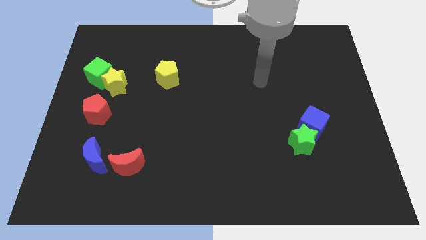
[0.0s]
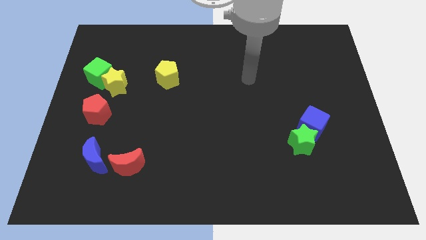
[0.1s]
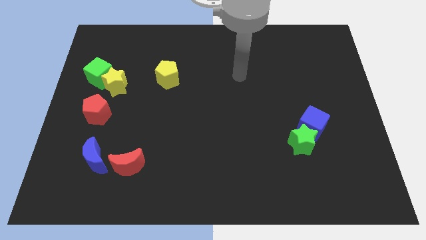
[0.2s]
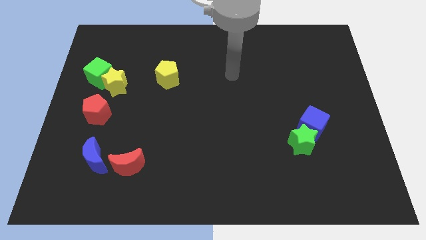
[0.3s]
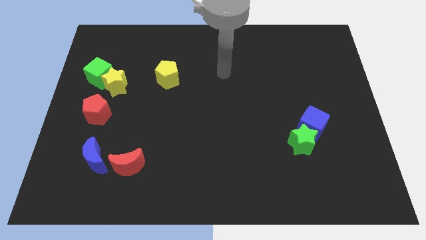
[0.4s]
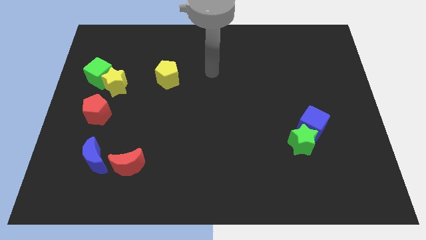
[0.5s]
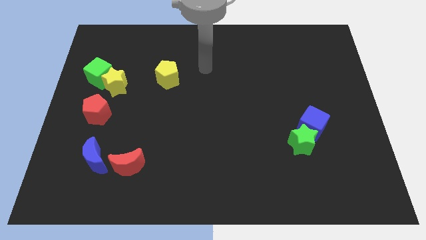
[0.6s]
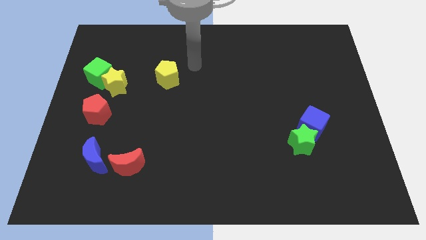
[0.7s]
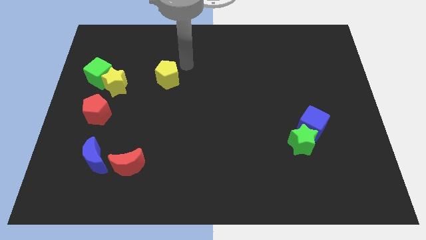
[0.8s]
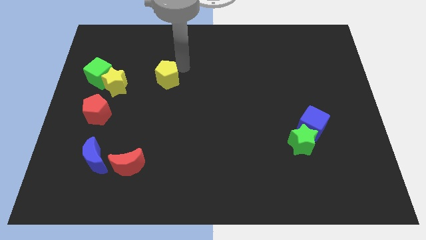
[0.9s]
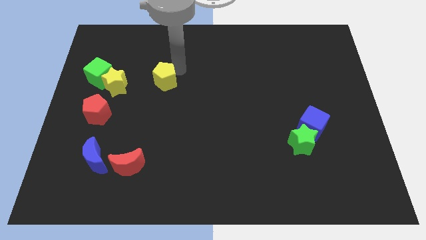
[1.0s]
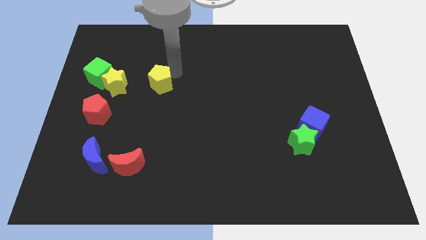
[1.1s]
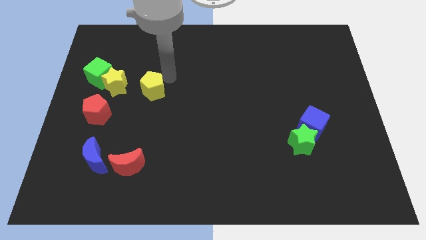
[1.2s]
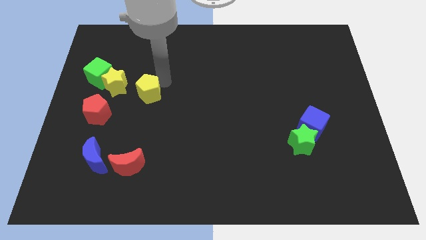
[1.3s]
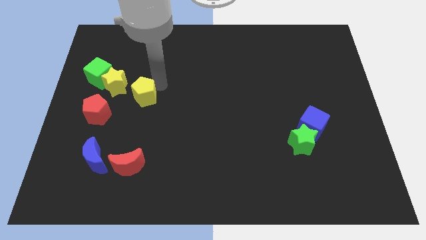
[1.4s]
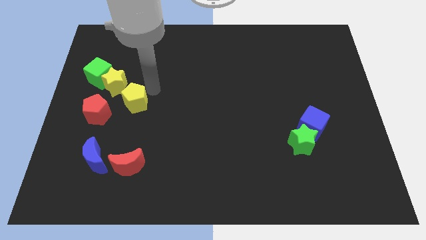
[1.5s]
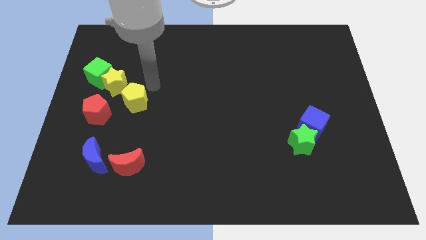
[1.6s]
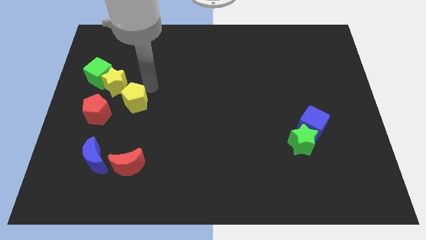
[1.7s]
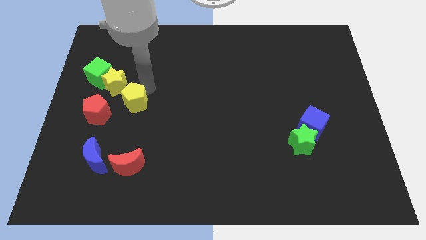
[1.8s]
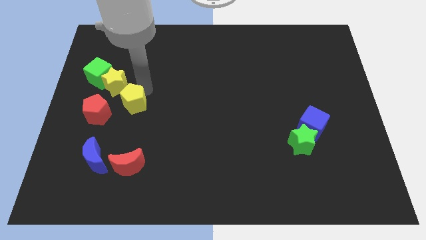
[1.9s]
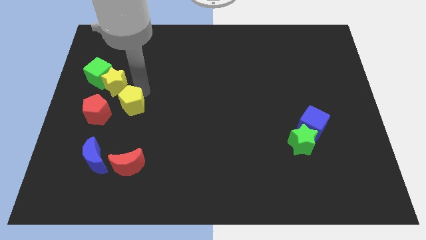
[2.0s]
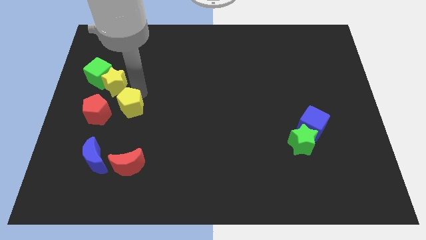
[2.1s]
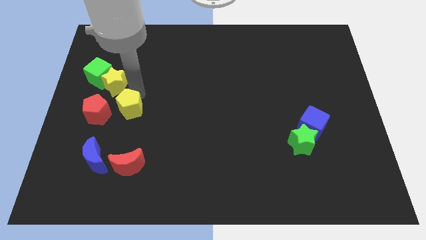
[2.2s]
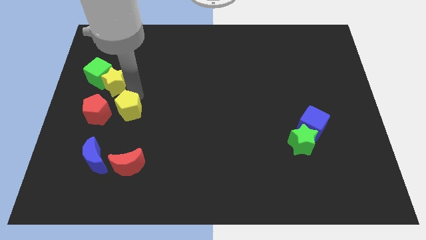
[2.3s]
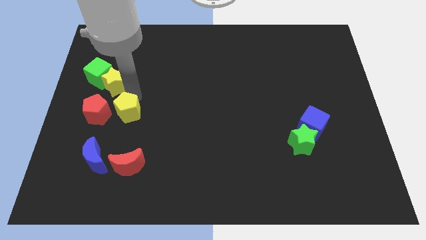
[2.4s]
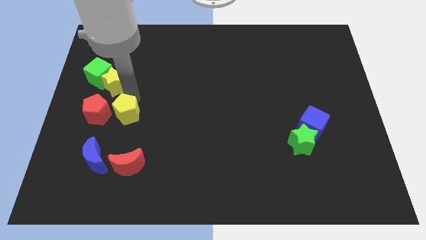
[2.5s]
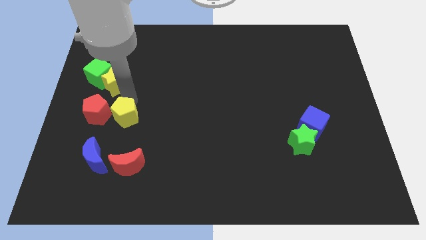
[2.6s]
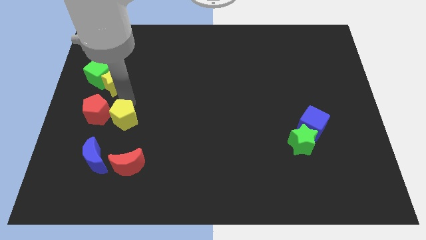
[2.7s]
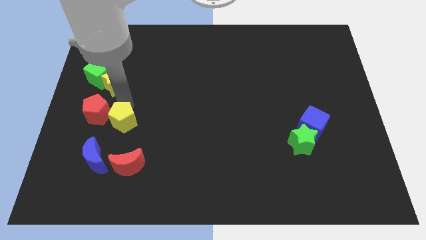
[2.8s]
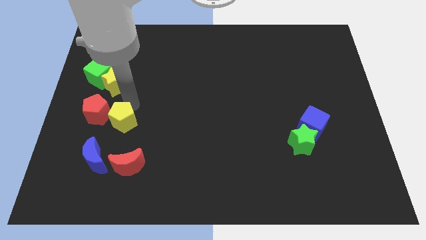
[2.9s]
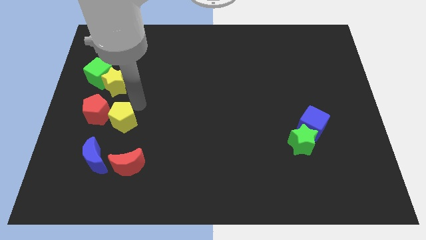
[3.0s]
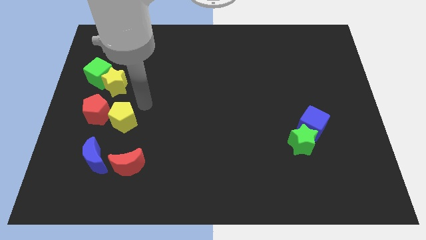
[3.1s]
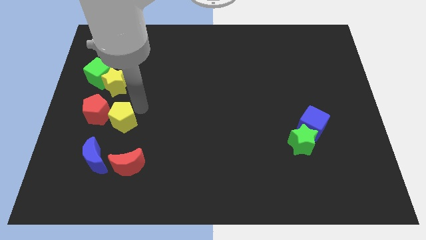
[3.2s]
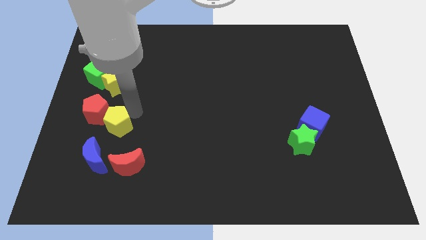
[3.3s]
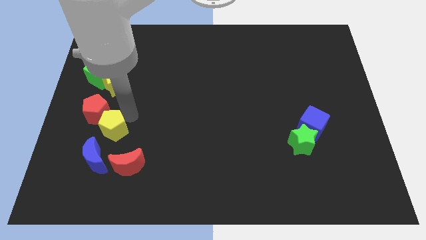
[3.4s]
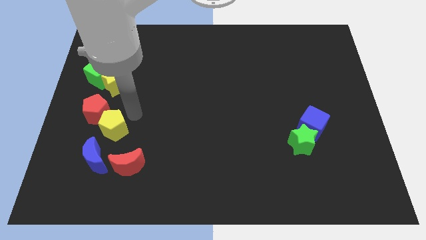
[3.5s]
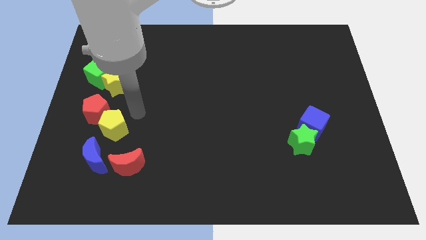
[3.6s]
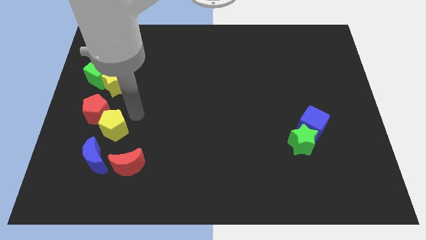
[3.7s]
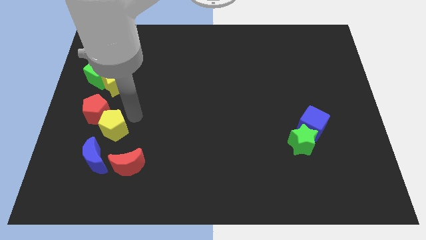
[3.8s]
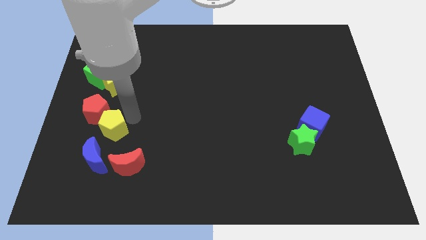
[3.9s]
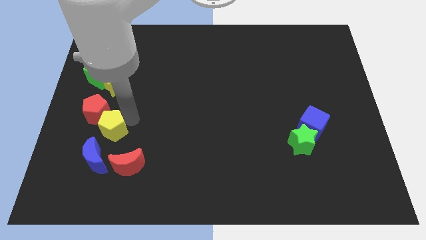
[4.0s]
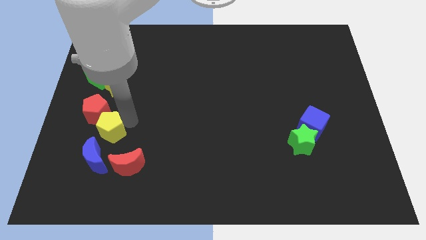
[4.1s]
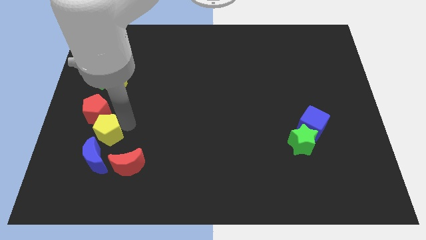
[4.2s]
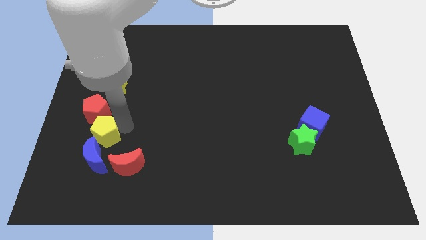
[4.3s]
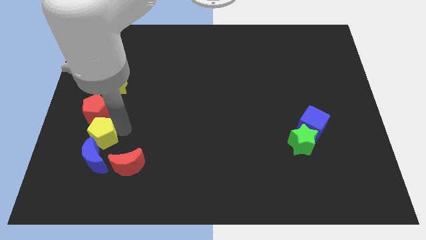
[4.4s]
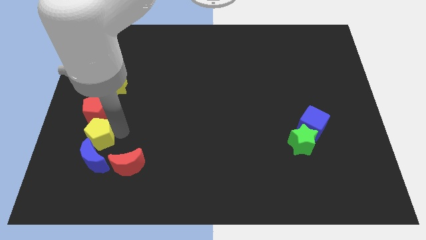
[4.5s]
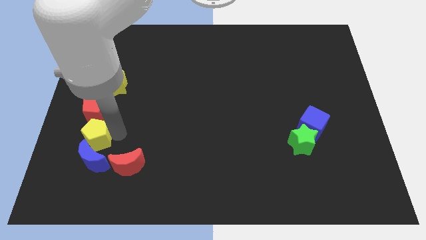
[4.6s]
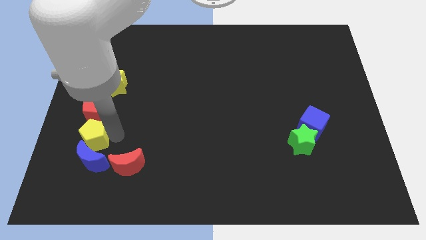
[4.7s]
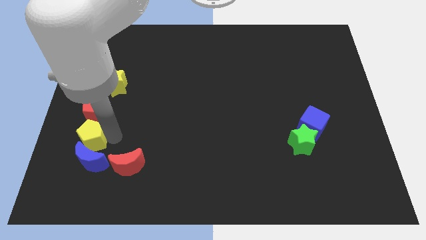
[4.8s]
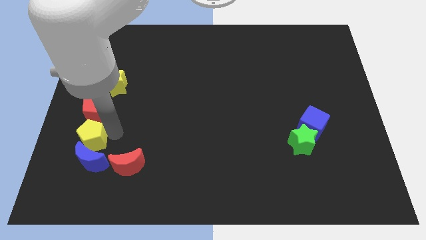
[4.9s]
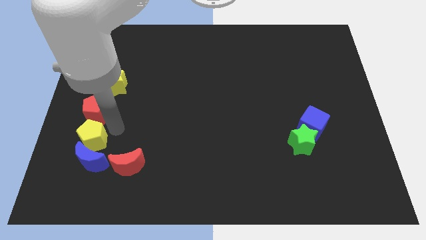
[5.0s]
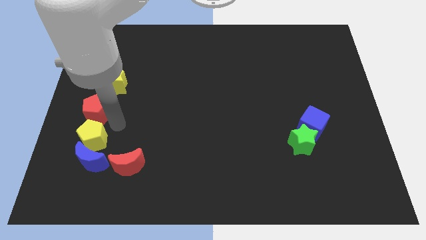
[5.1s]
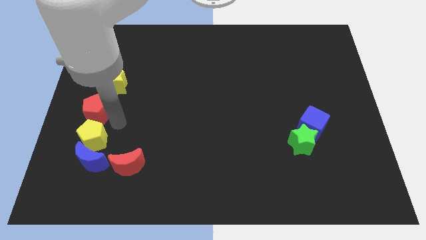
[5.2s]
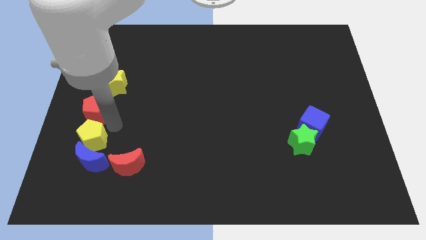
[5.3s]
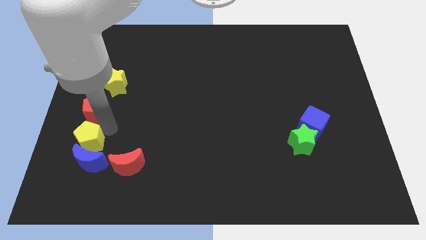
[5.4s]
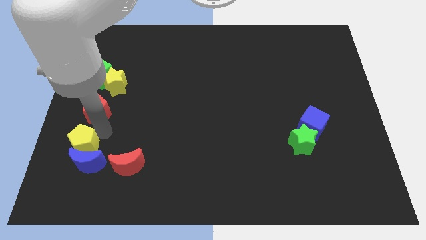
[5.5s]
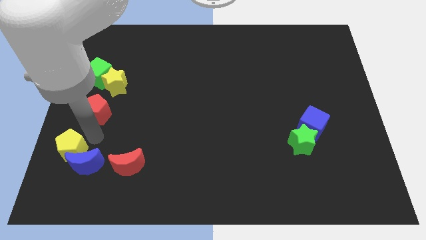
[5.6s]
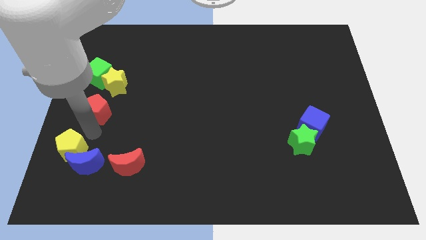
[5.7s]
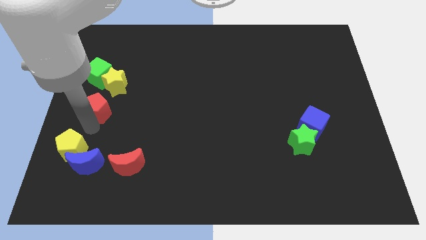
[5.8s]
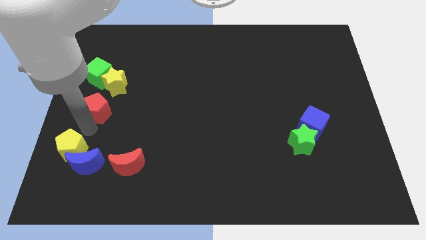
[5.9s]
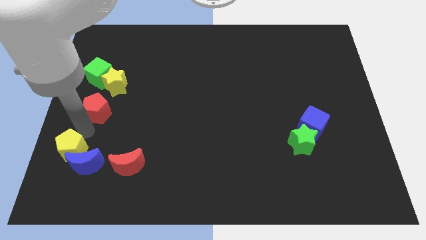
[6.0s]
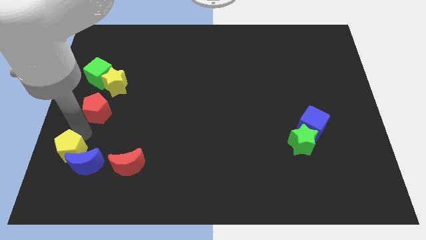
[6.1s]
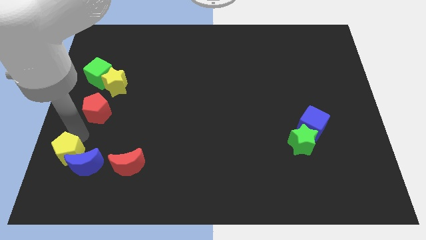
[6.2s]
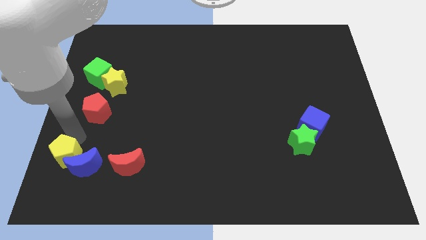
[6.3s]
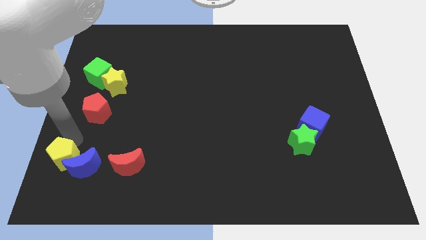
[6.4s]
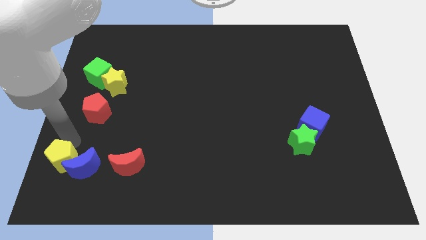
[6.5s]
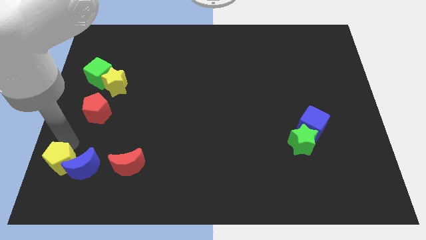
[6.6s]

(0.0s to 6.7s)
slide the yellow pentagon to the bottom left of the board
